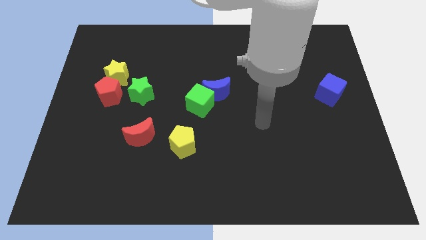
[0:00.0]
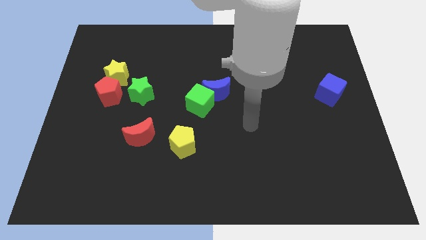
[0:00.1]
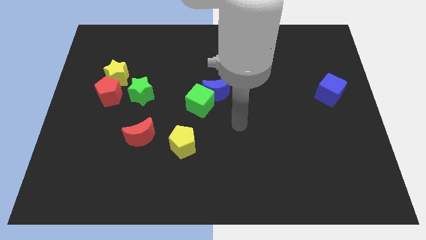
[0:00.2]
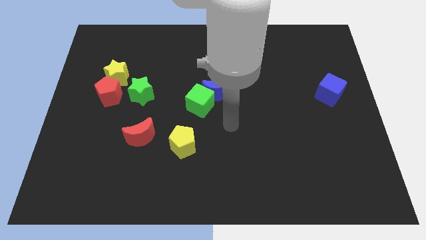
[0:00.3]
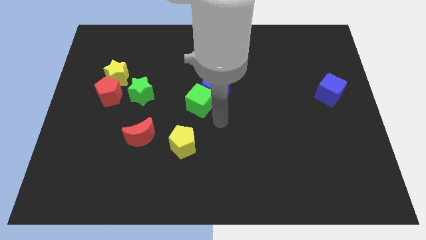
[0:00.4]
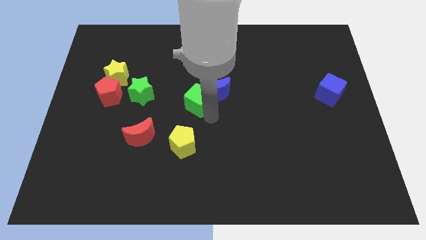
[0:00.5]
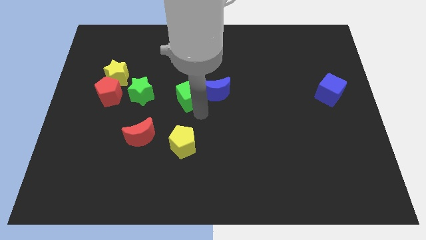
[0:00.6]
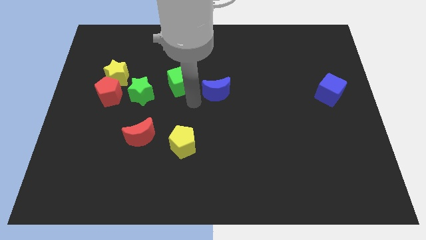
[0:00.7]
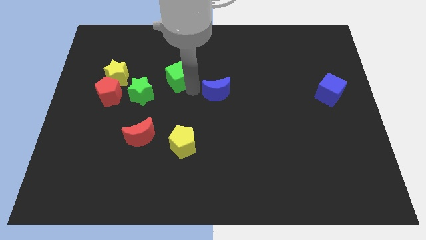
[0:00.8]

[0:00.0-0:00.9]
move the blue moon away from the green cube

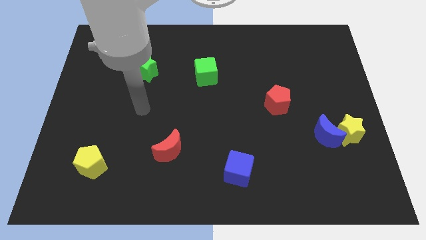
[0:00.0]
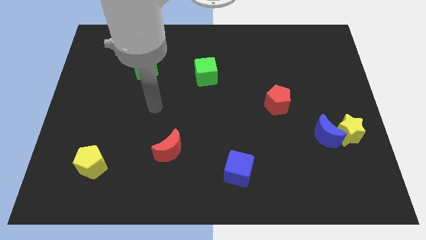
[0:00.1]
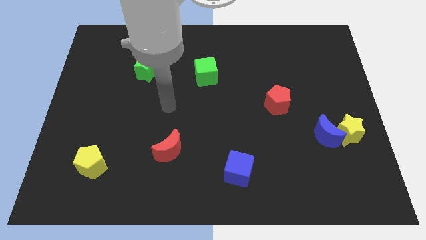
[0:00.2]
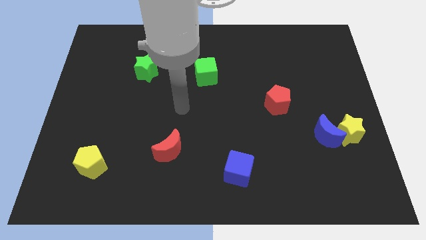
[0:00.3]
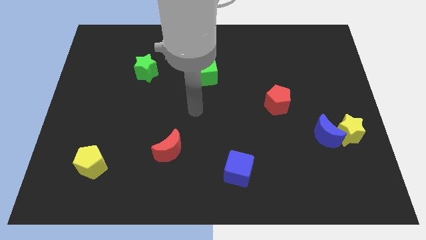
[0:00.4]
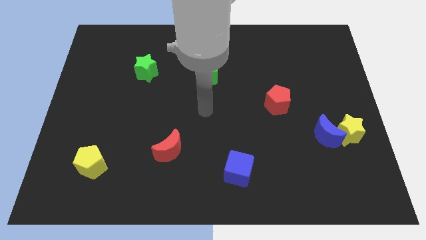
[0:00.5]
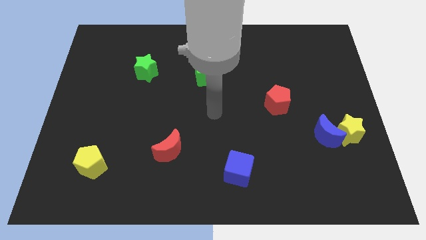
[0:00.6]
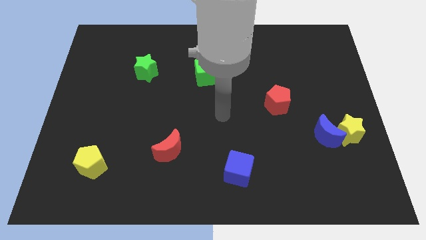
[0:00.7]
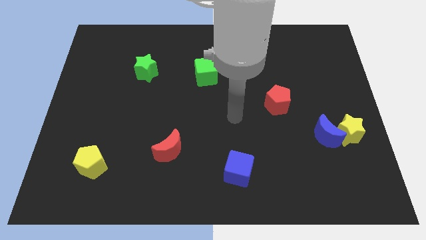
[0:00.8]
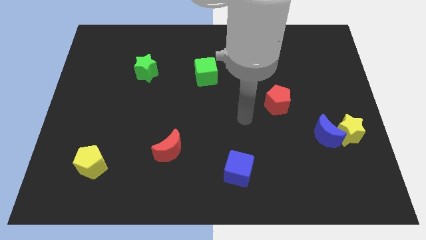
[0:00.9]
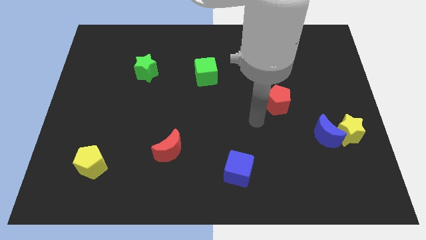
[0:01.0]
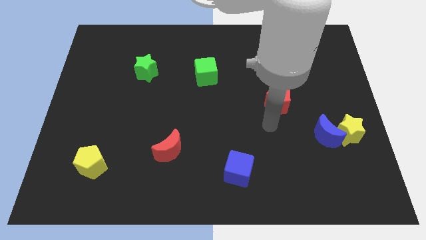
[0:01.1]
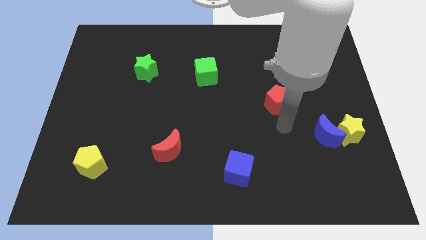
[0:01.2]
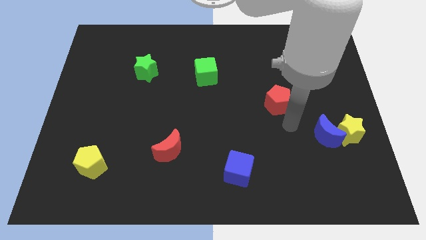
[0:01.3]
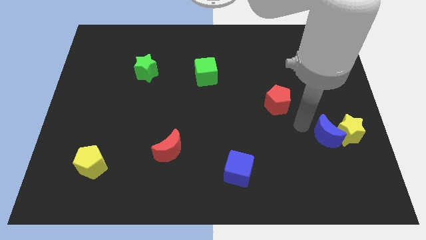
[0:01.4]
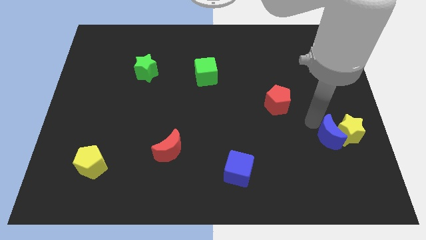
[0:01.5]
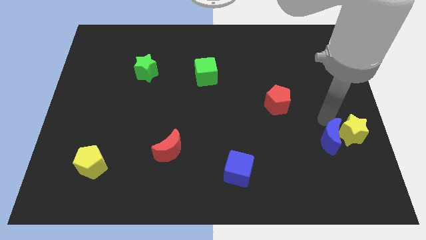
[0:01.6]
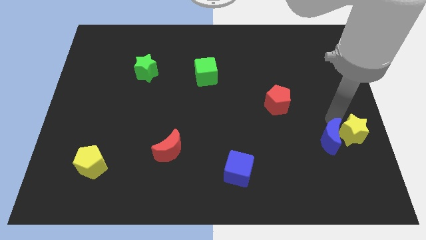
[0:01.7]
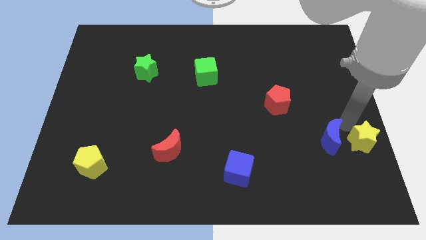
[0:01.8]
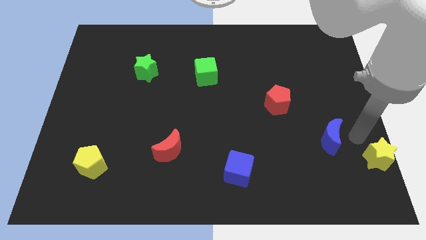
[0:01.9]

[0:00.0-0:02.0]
move the blue moon away from the yellow star

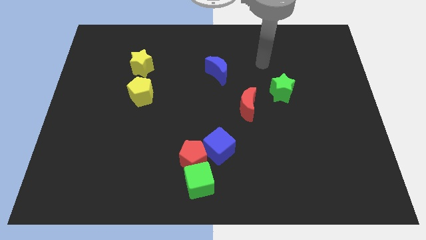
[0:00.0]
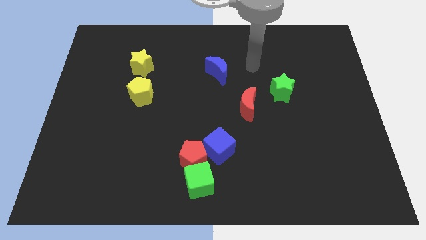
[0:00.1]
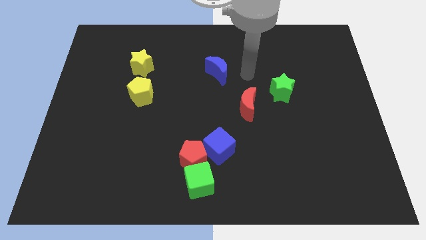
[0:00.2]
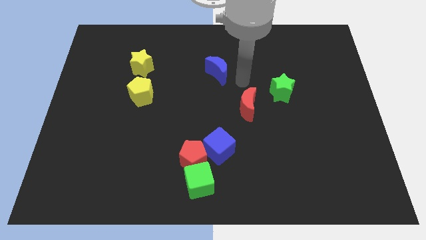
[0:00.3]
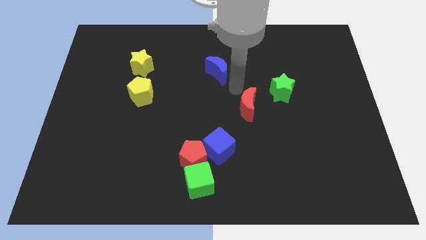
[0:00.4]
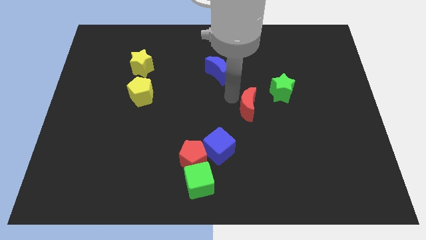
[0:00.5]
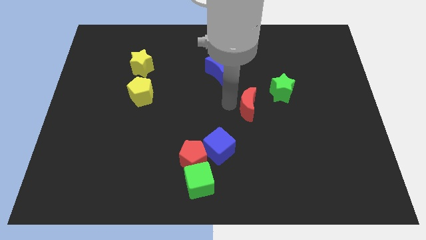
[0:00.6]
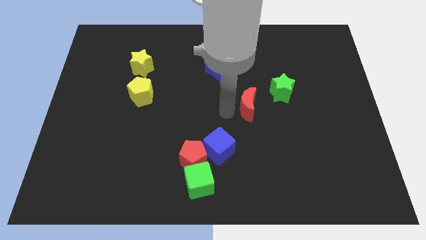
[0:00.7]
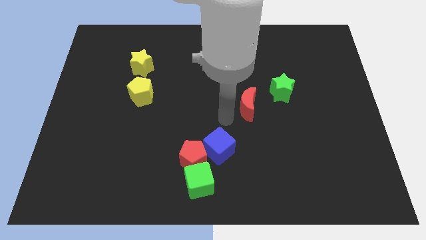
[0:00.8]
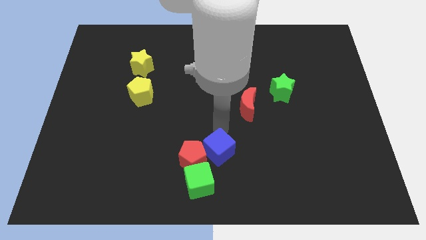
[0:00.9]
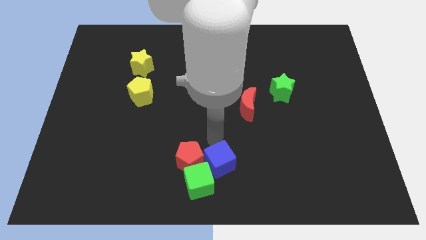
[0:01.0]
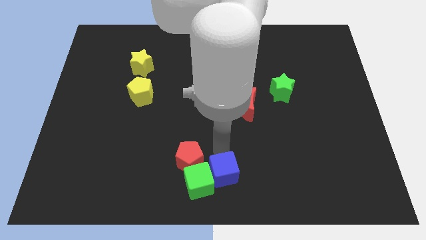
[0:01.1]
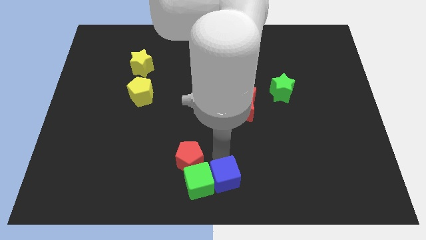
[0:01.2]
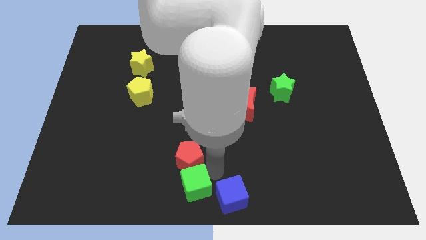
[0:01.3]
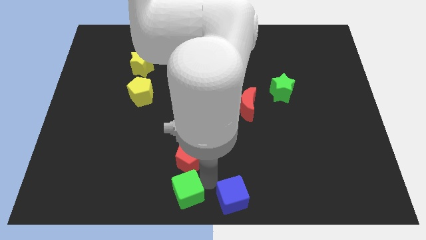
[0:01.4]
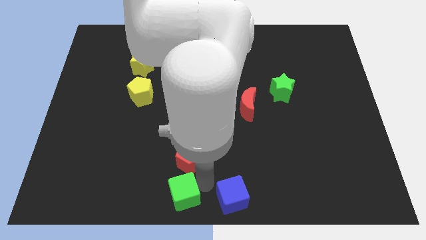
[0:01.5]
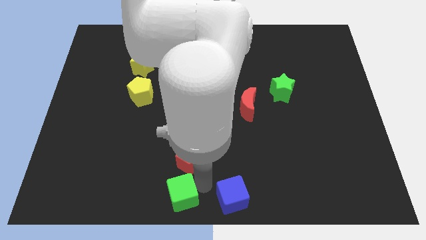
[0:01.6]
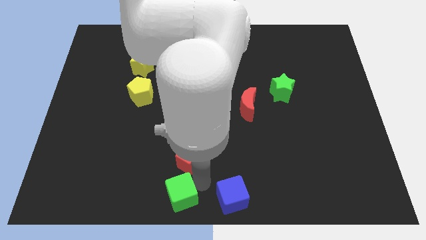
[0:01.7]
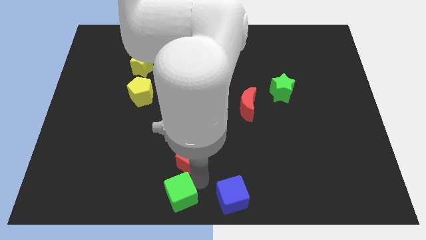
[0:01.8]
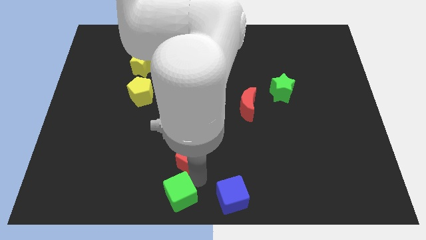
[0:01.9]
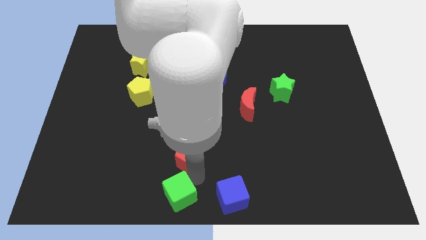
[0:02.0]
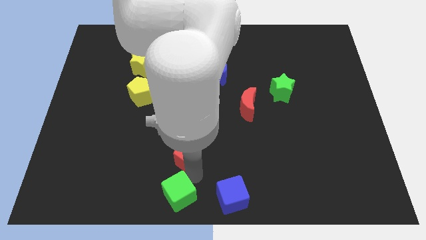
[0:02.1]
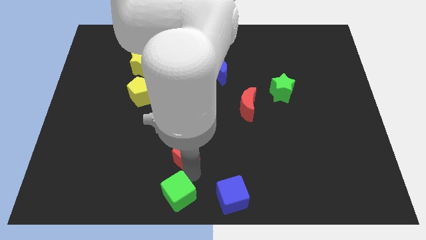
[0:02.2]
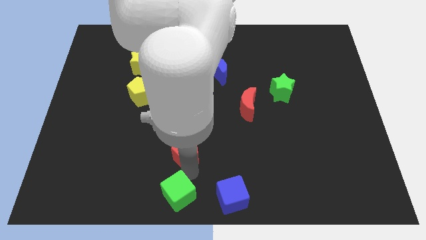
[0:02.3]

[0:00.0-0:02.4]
separate the red pentagon from the green cube and blue cube

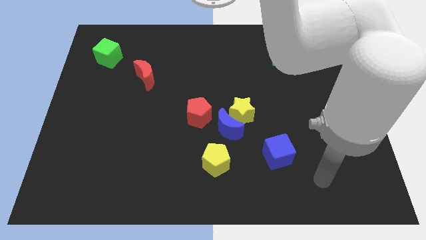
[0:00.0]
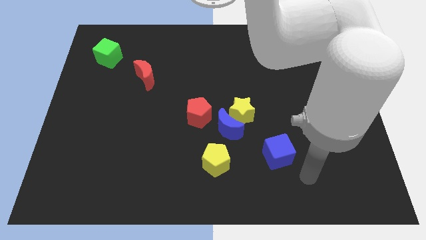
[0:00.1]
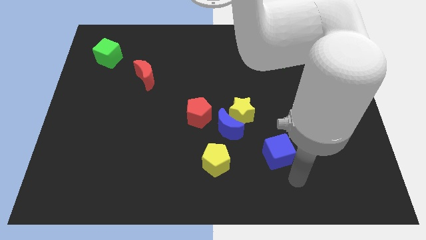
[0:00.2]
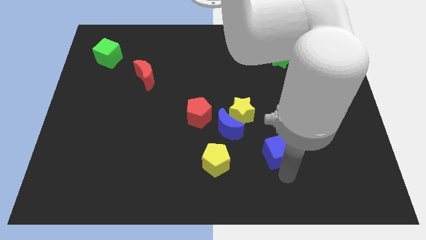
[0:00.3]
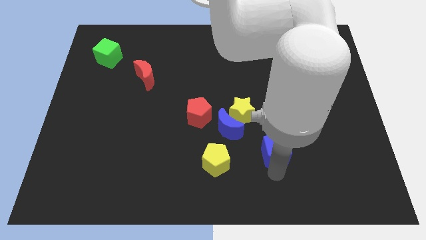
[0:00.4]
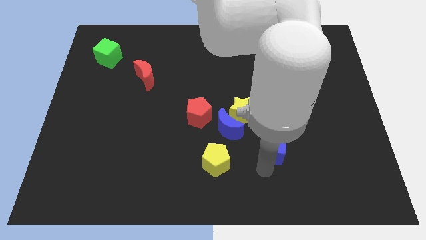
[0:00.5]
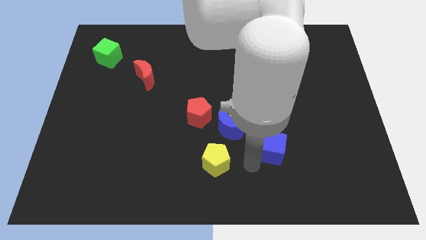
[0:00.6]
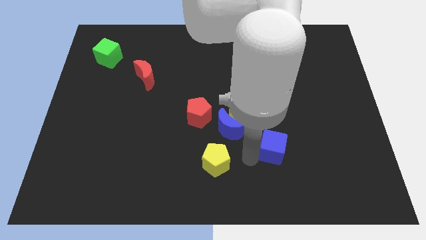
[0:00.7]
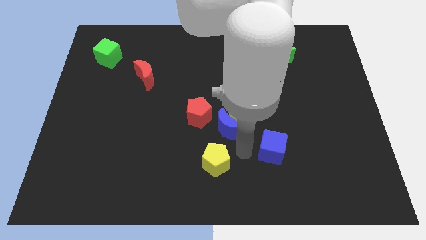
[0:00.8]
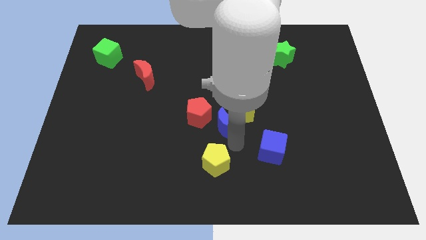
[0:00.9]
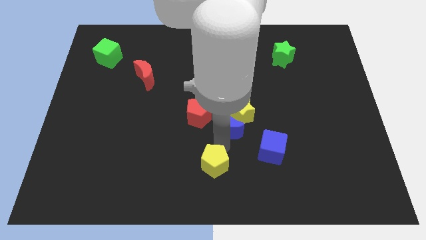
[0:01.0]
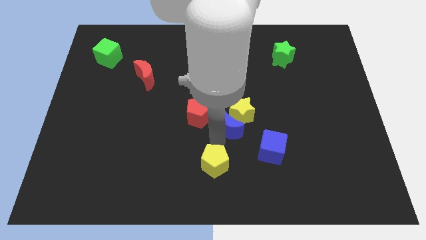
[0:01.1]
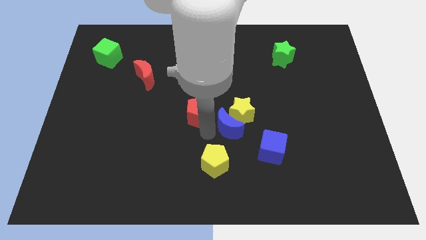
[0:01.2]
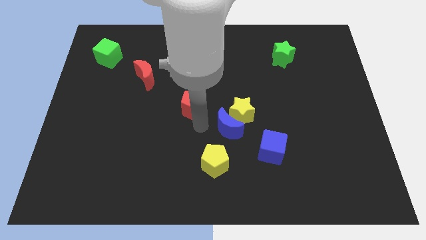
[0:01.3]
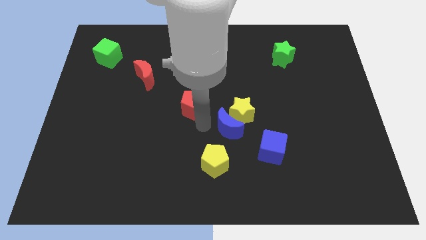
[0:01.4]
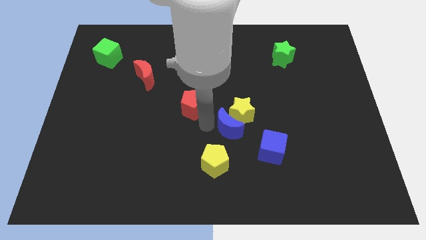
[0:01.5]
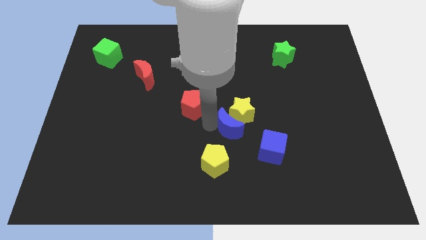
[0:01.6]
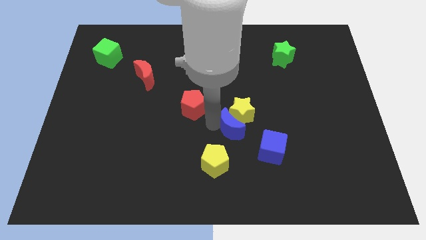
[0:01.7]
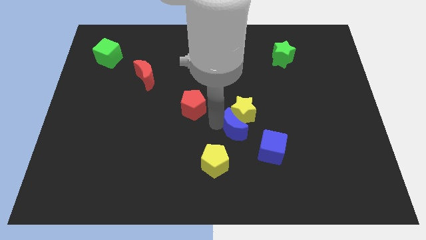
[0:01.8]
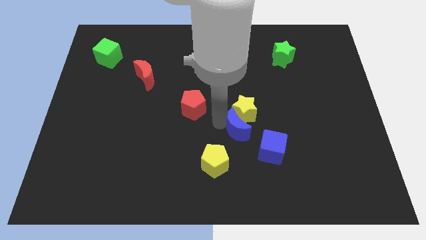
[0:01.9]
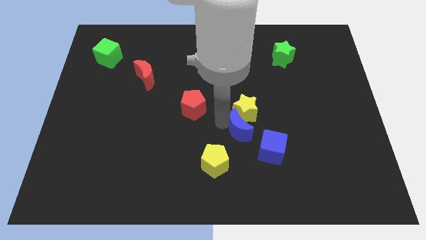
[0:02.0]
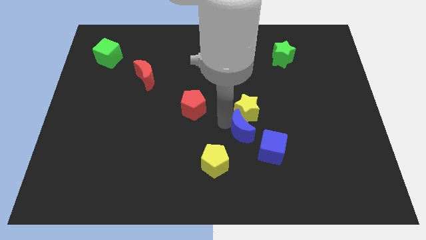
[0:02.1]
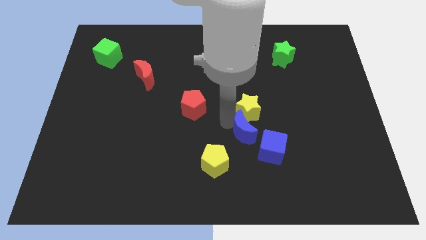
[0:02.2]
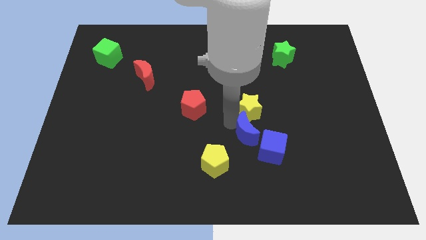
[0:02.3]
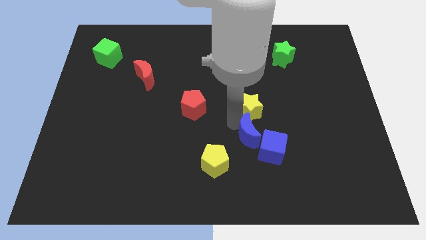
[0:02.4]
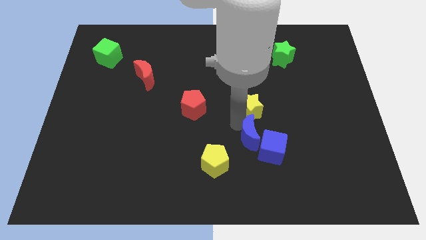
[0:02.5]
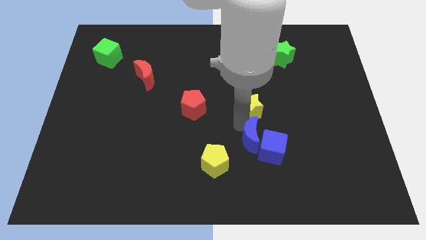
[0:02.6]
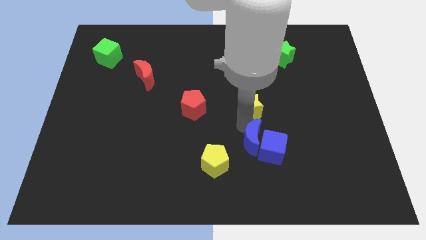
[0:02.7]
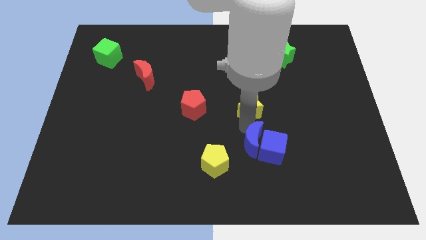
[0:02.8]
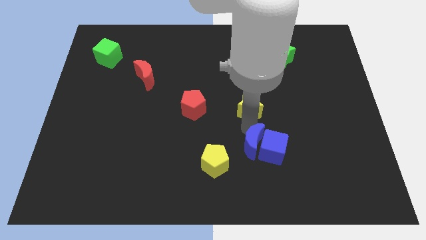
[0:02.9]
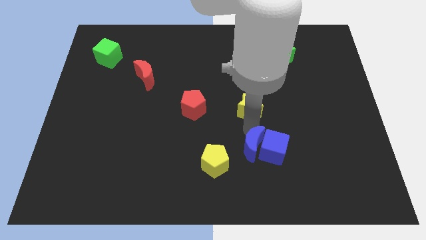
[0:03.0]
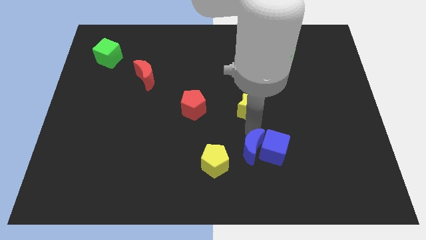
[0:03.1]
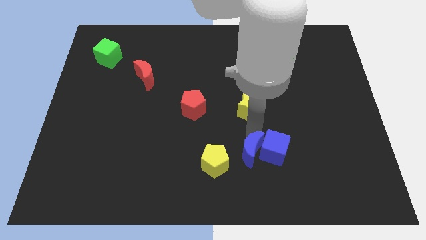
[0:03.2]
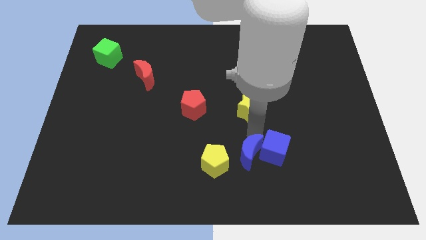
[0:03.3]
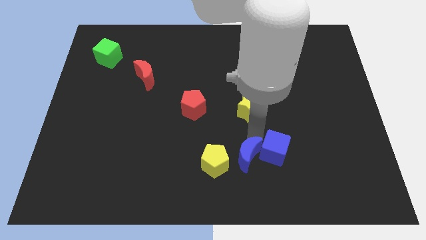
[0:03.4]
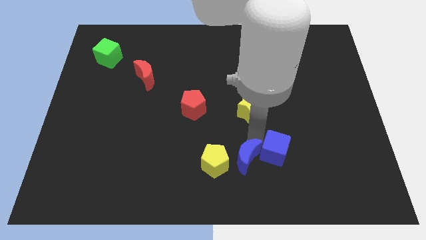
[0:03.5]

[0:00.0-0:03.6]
separate the blue moon from the group of blocks

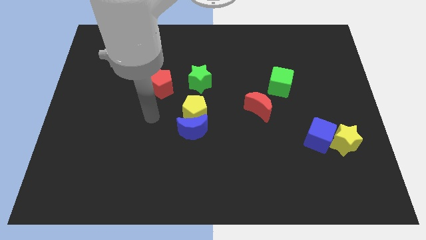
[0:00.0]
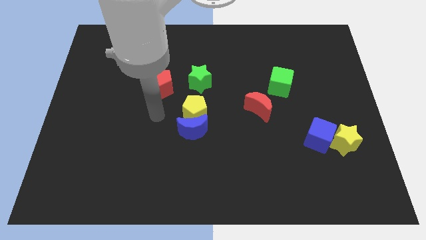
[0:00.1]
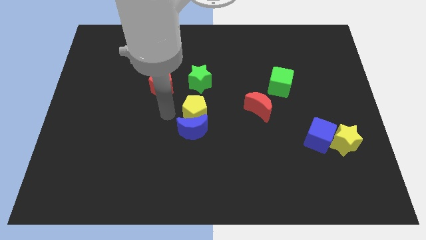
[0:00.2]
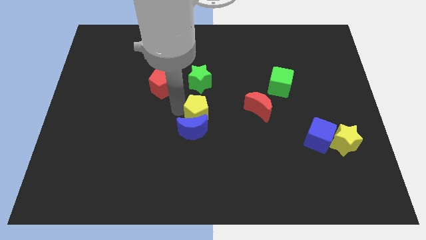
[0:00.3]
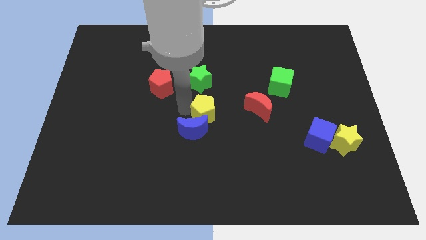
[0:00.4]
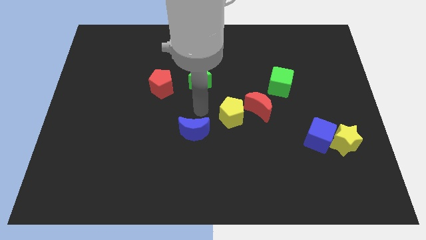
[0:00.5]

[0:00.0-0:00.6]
move the blue moon away from the yellow pentagon
